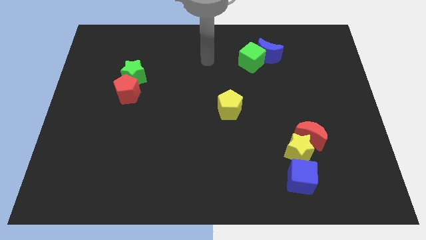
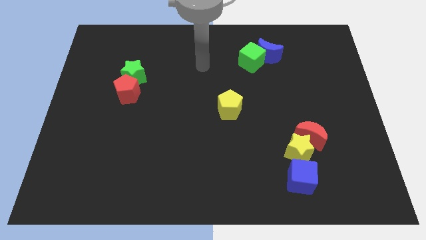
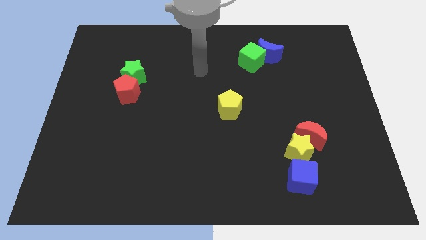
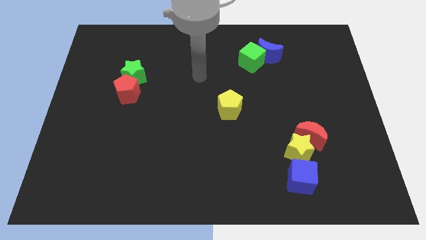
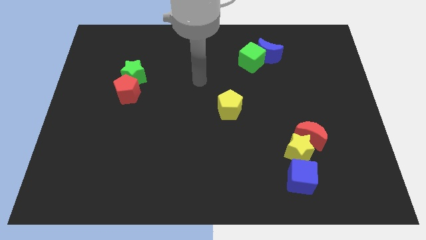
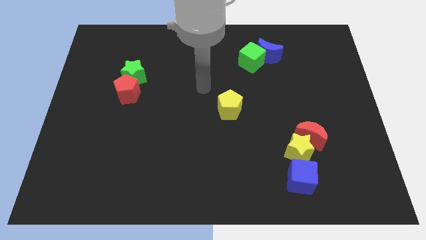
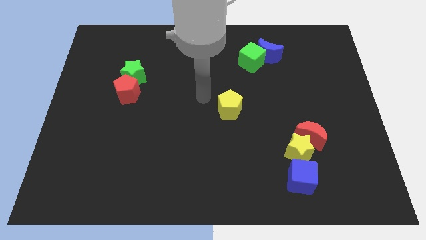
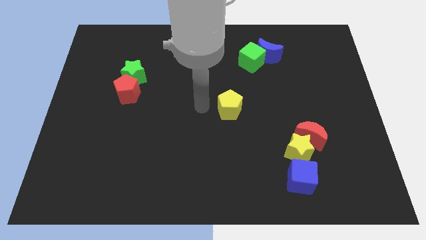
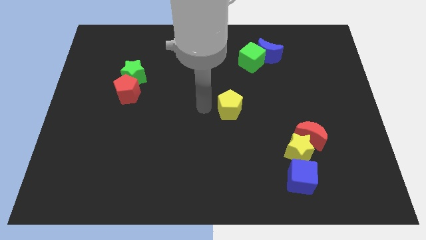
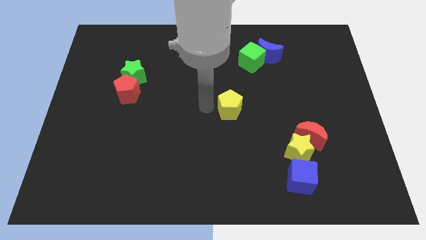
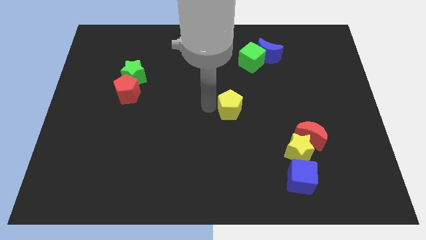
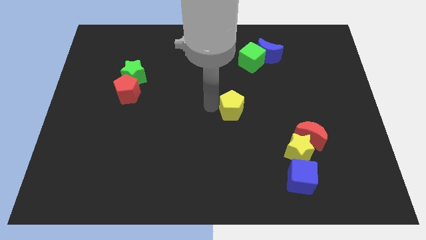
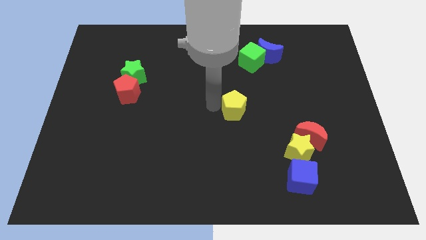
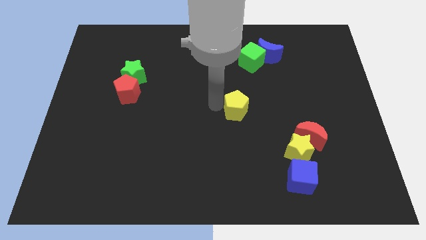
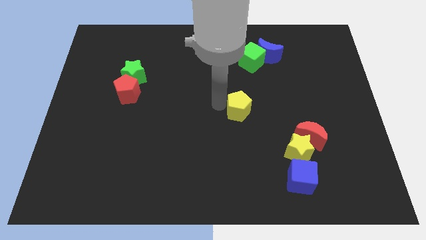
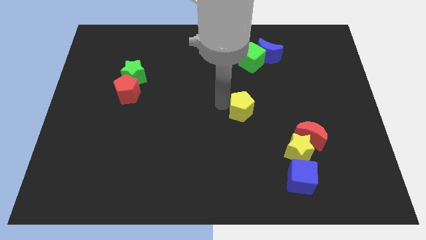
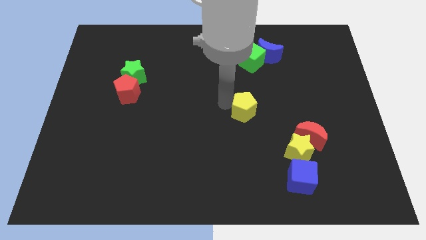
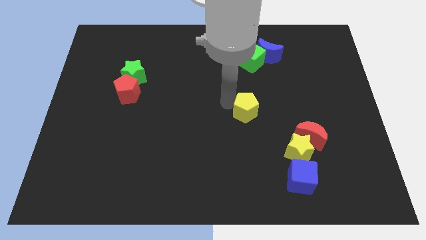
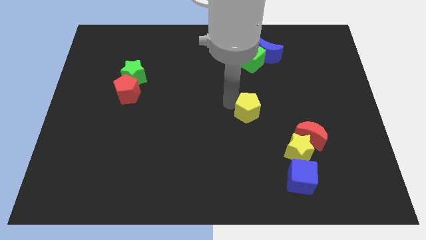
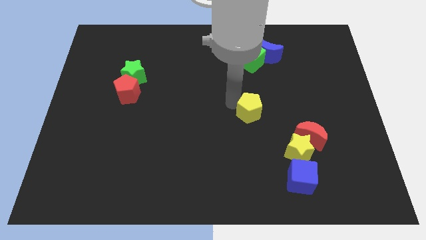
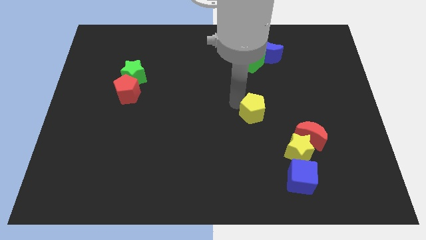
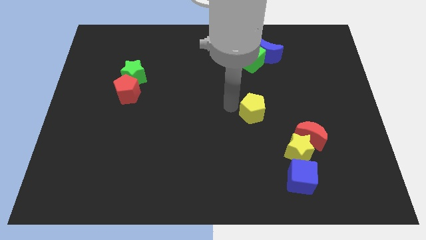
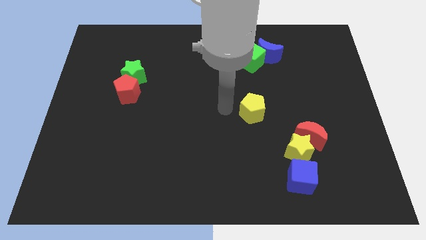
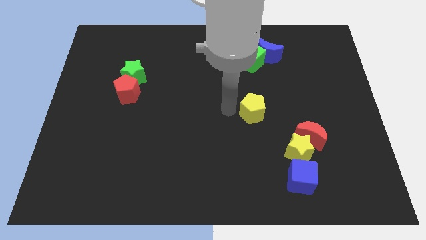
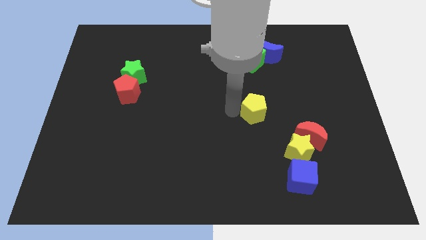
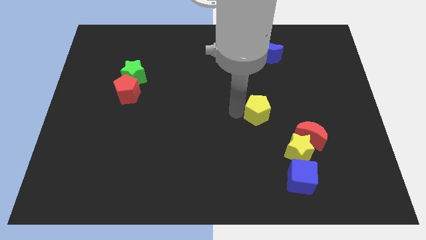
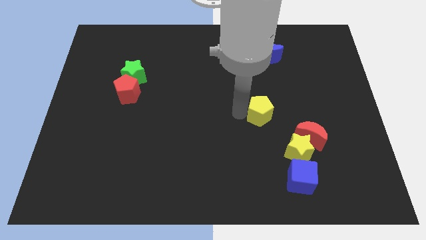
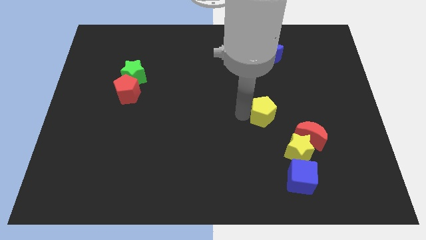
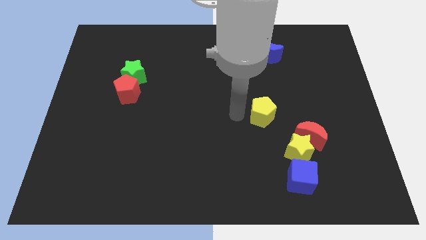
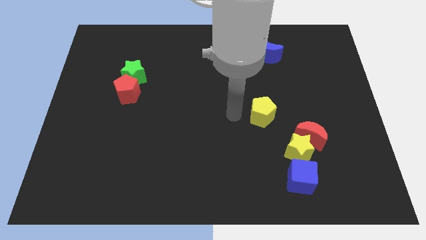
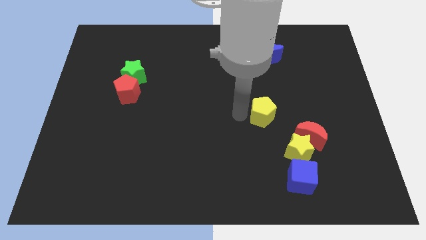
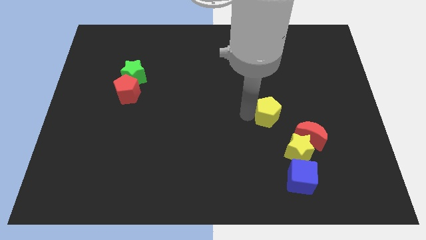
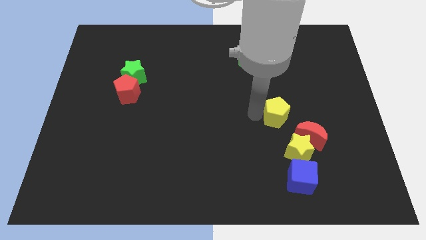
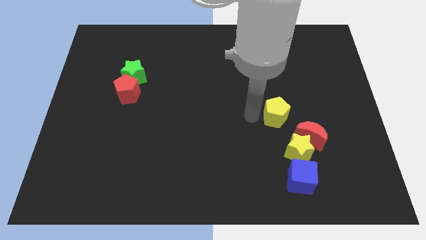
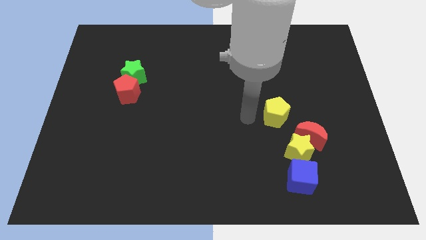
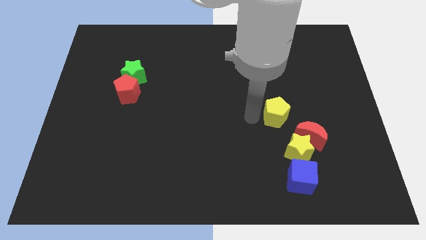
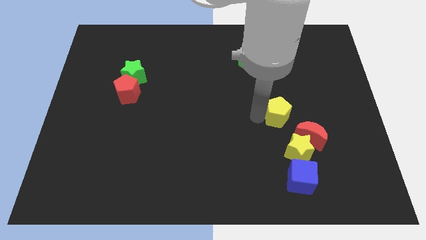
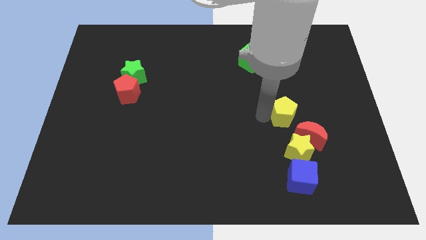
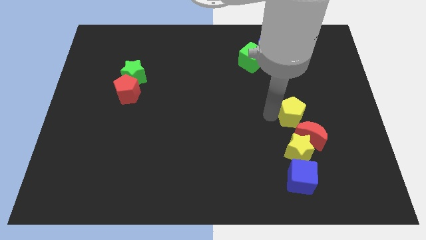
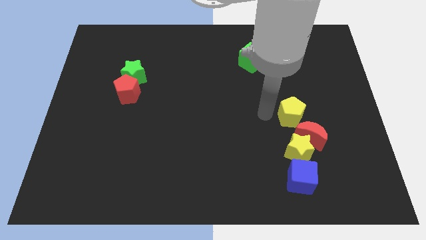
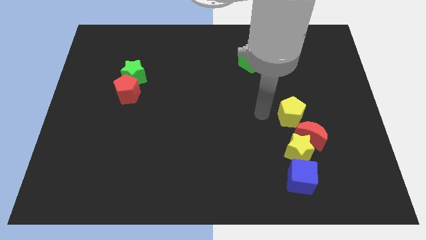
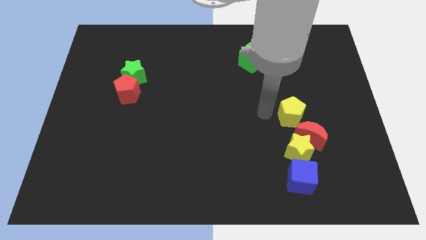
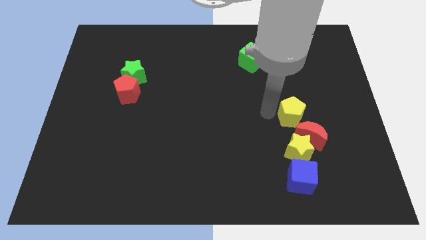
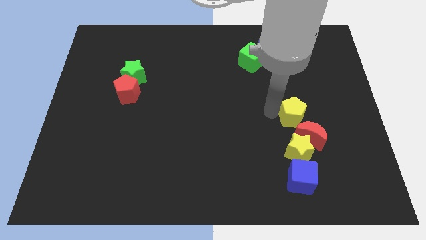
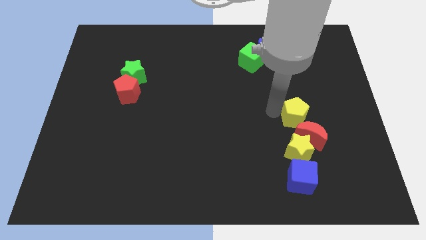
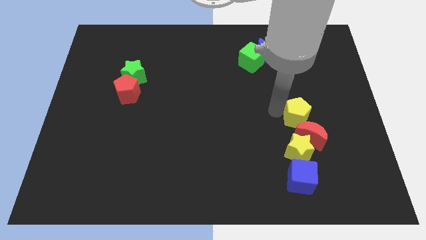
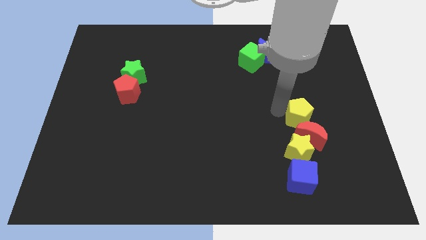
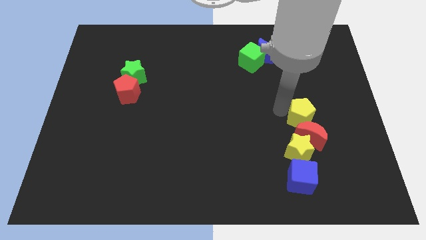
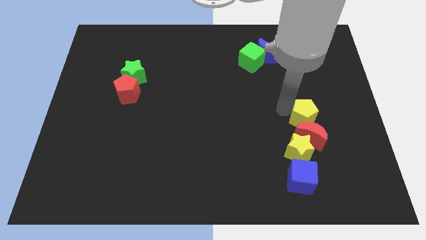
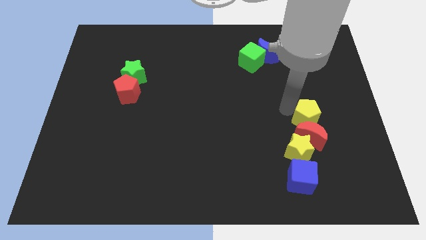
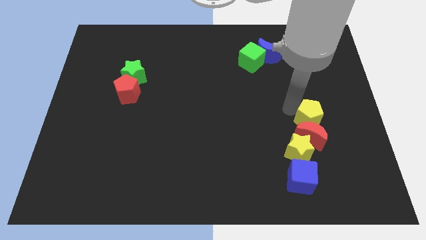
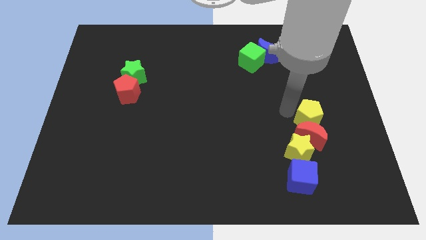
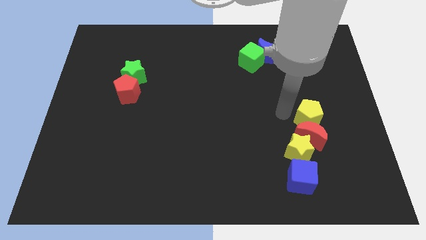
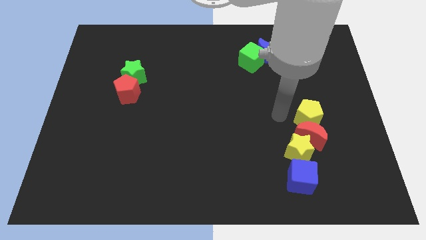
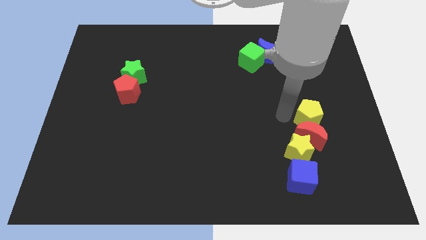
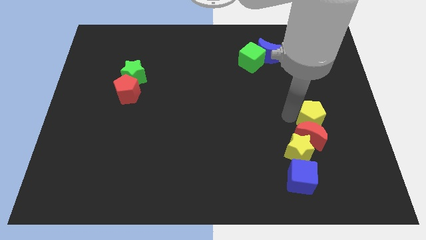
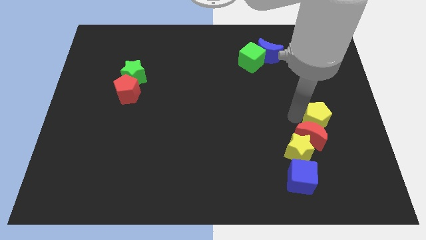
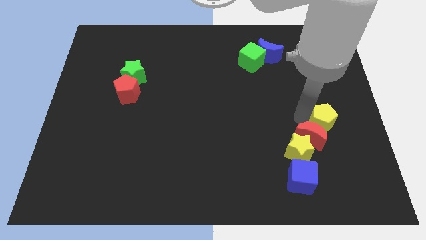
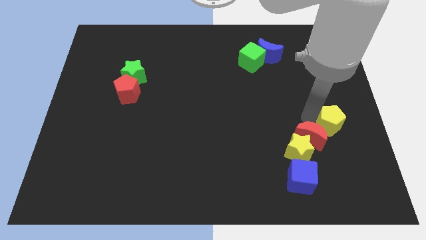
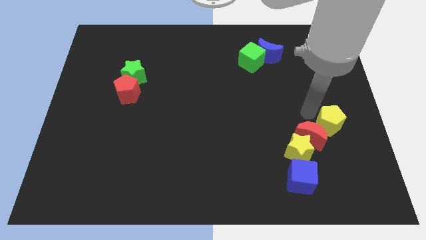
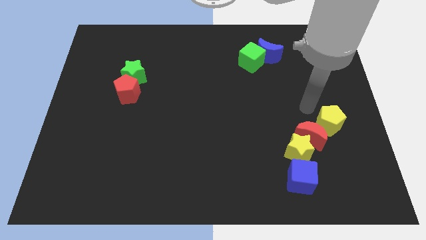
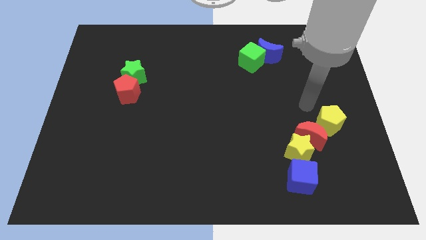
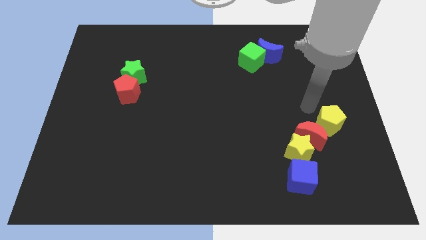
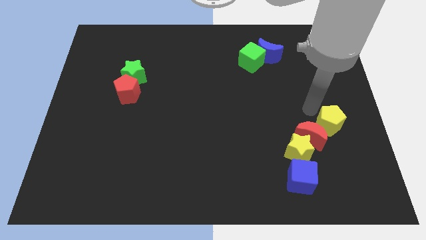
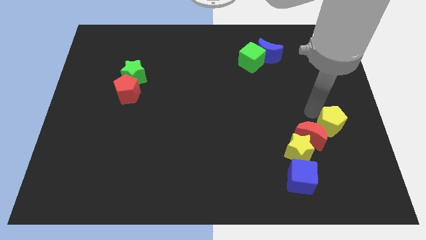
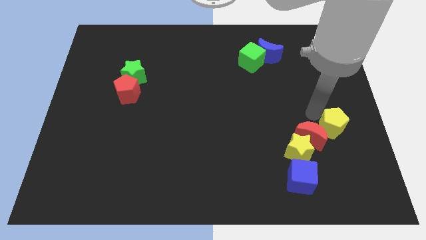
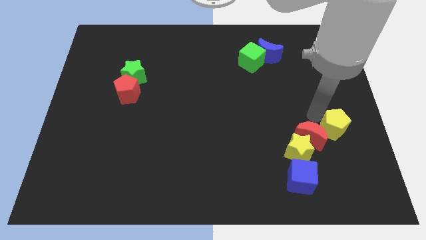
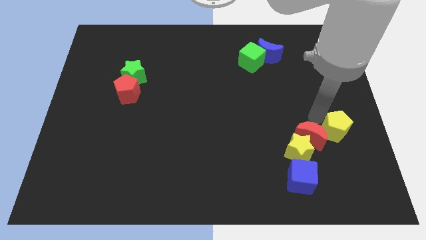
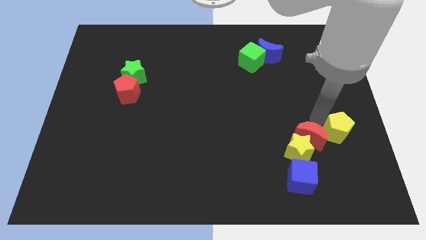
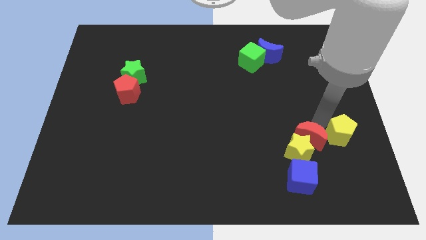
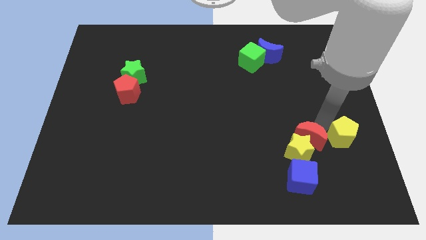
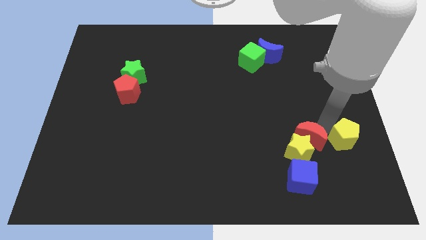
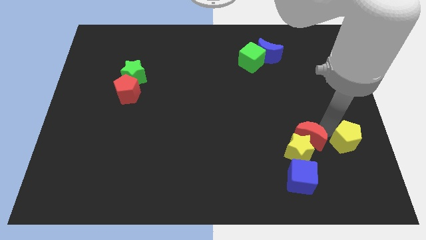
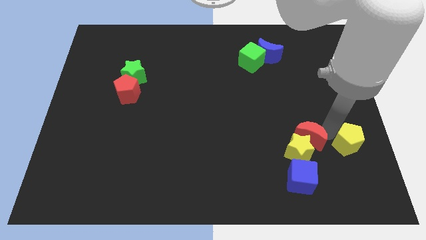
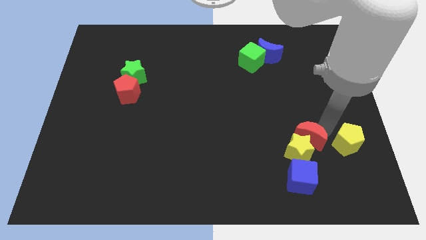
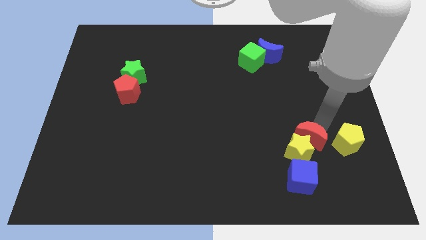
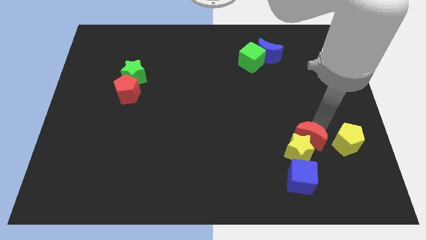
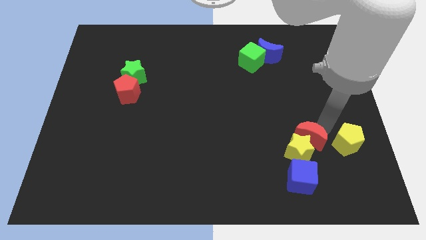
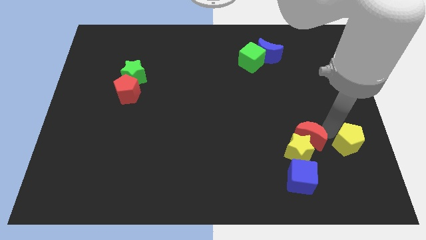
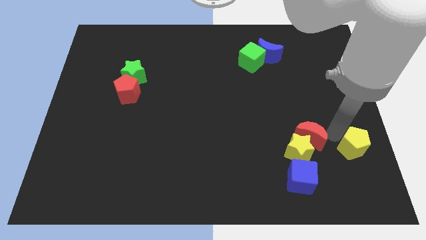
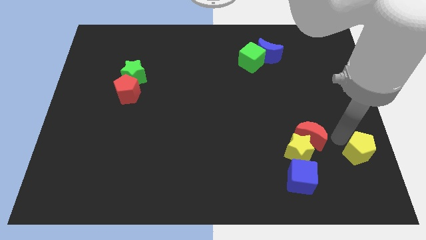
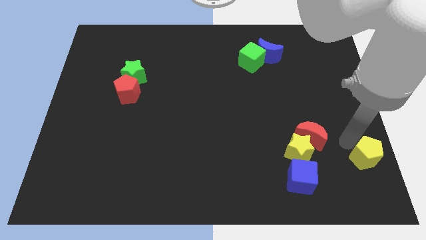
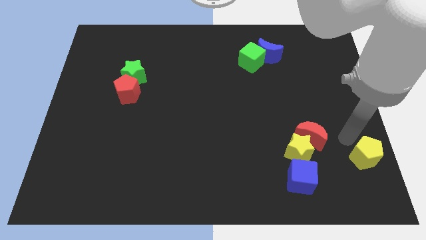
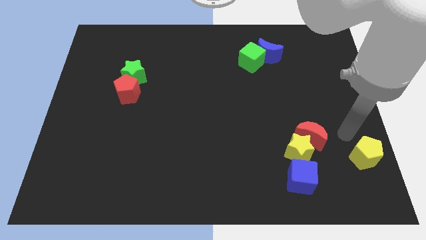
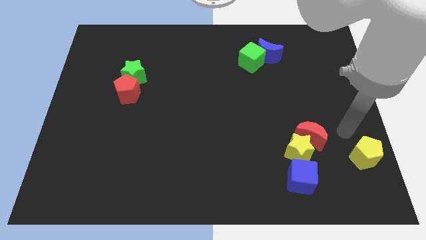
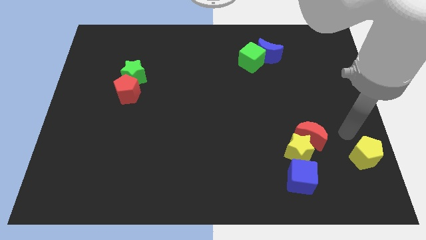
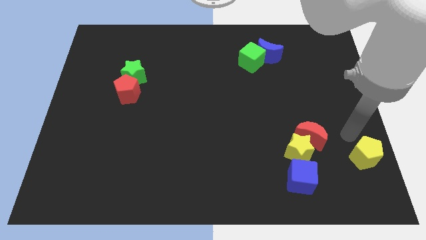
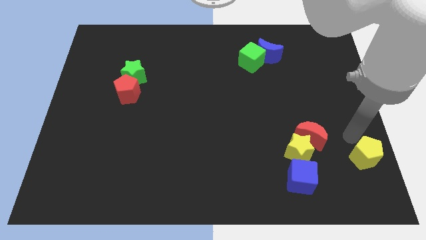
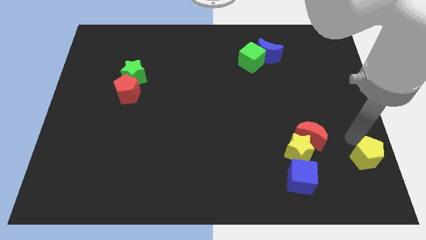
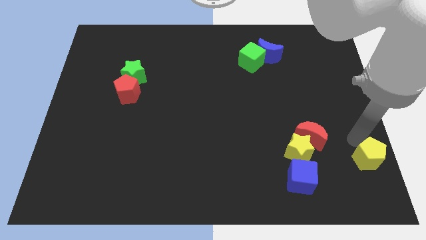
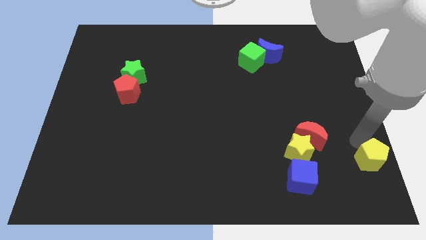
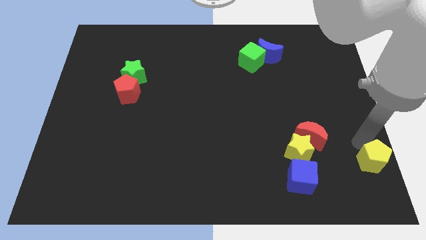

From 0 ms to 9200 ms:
put the yellow pentagon to the bottom right
